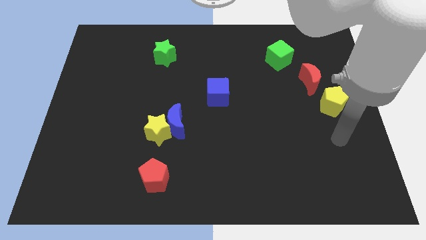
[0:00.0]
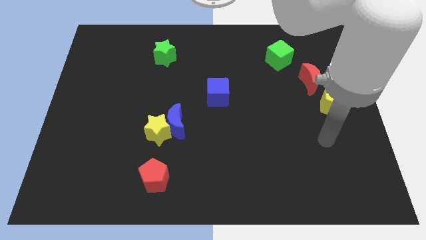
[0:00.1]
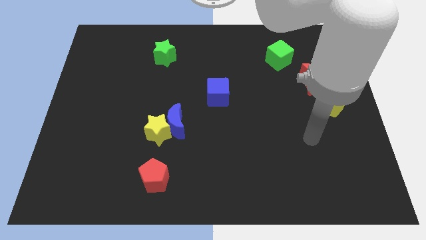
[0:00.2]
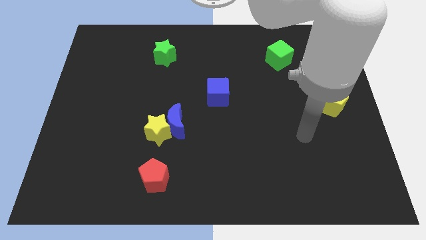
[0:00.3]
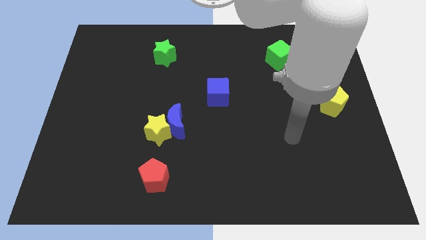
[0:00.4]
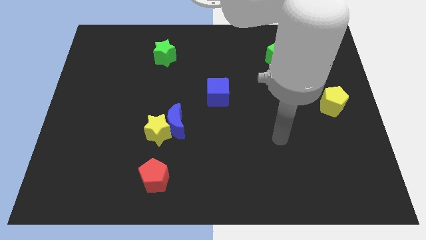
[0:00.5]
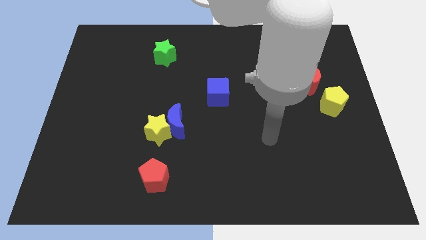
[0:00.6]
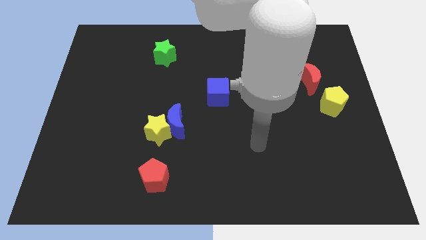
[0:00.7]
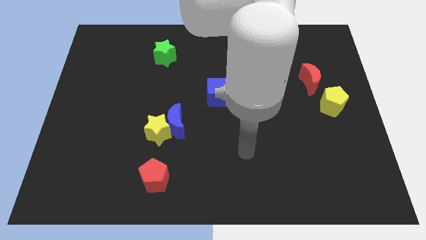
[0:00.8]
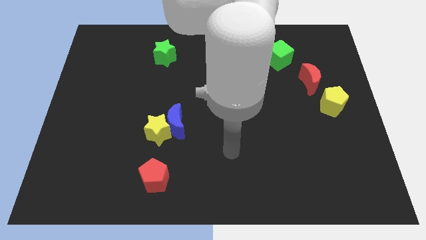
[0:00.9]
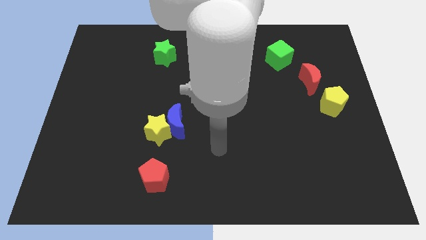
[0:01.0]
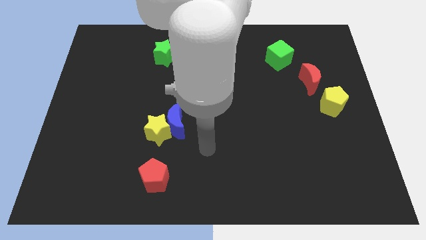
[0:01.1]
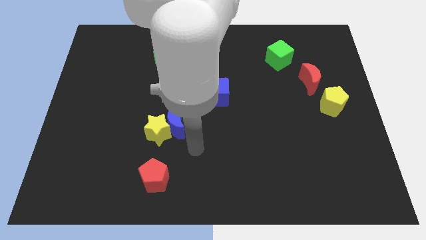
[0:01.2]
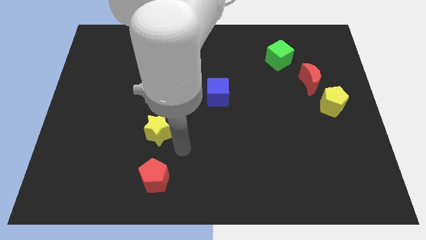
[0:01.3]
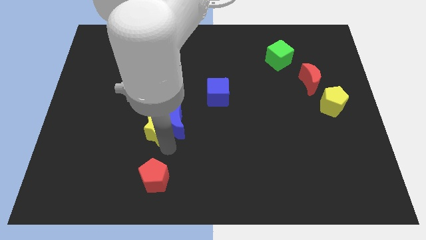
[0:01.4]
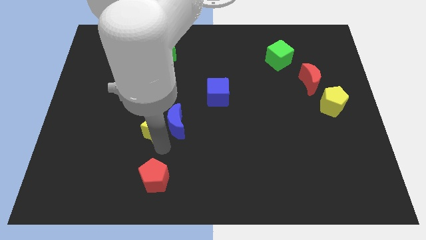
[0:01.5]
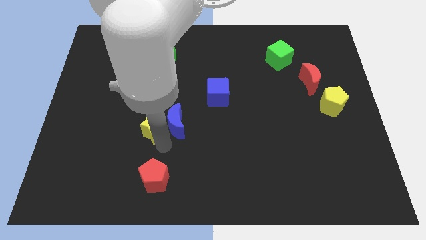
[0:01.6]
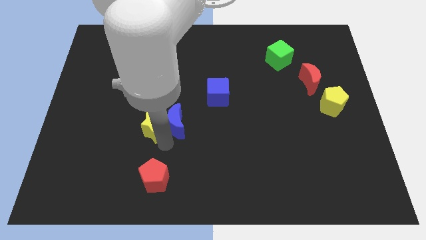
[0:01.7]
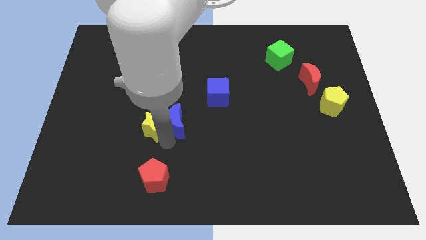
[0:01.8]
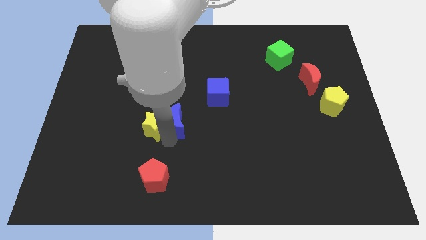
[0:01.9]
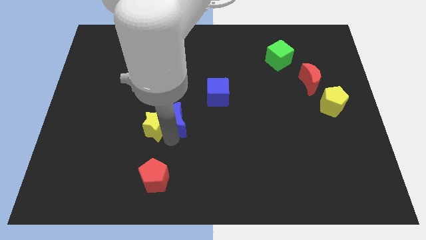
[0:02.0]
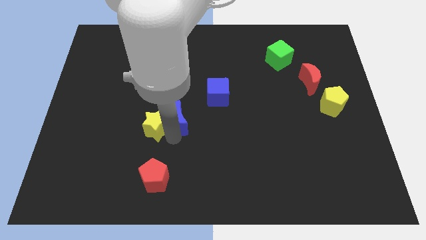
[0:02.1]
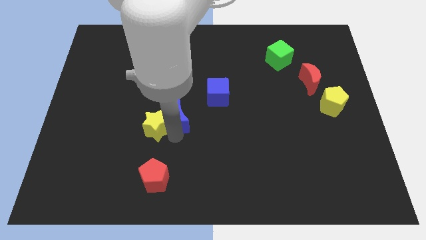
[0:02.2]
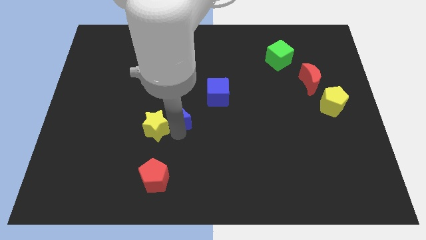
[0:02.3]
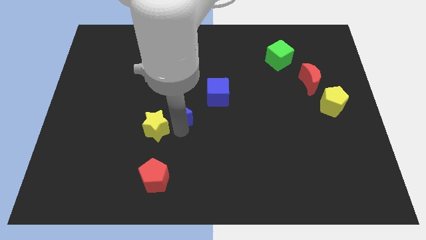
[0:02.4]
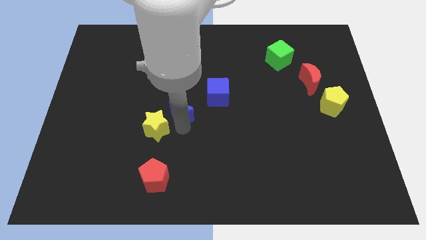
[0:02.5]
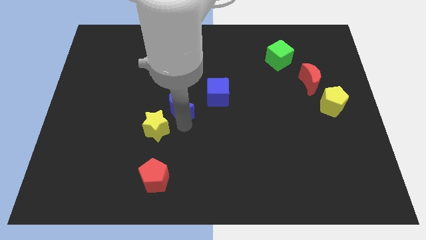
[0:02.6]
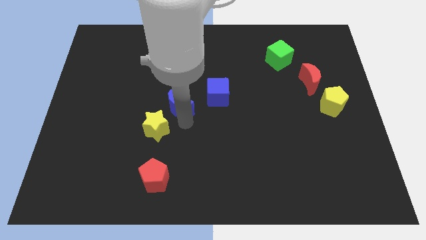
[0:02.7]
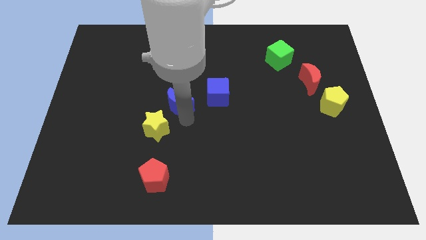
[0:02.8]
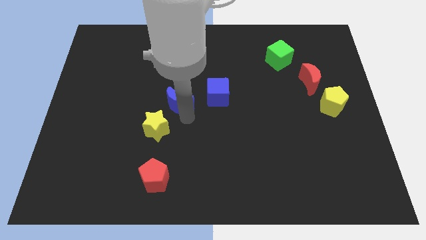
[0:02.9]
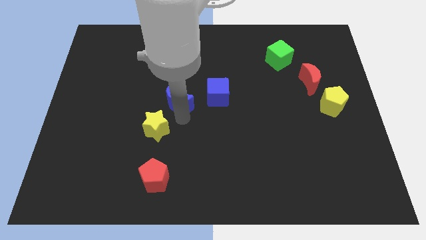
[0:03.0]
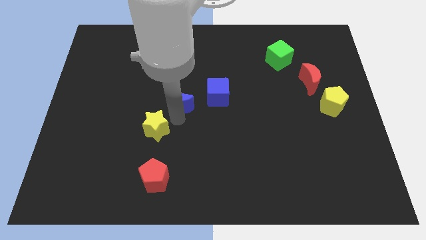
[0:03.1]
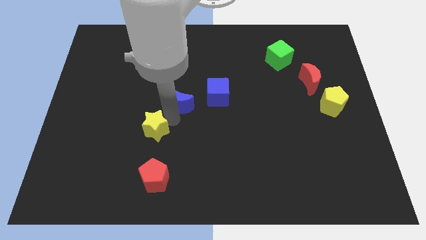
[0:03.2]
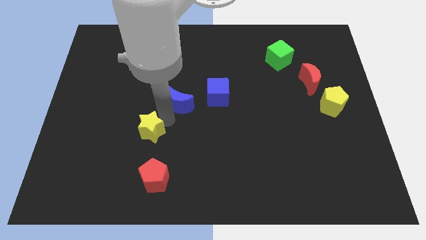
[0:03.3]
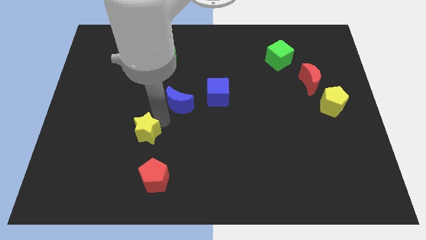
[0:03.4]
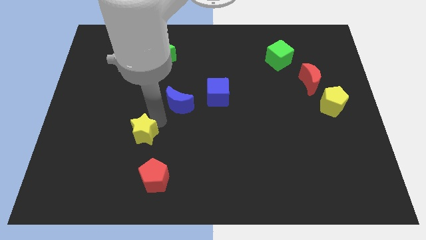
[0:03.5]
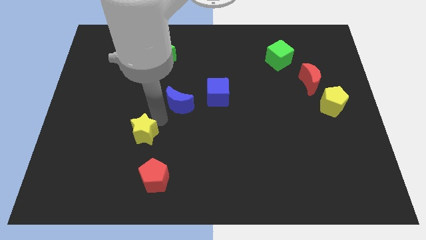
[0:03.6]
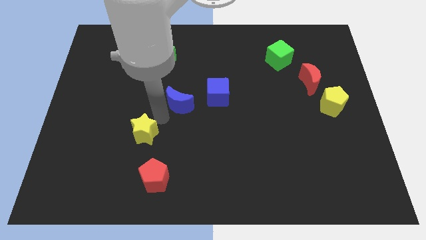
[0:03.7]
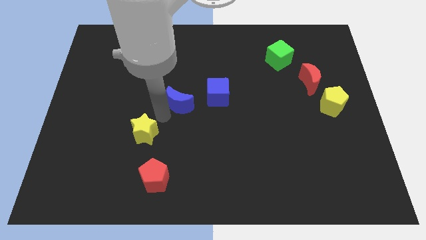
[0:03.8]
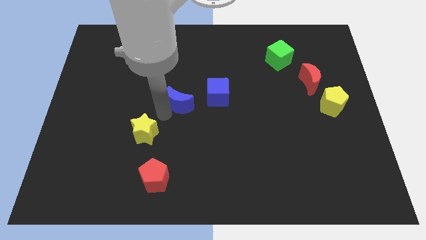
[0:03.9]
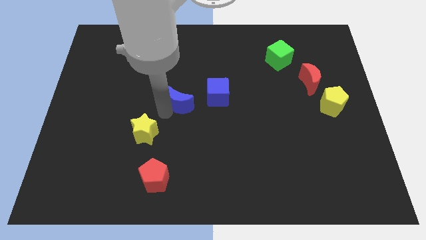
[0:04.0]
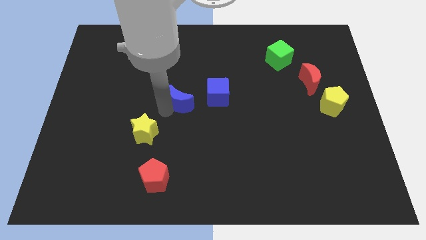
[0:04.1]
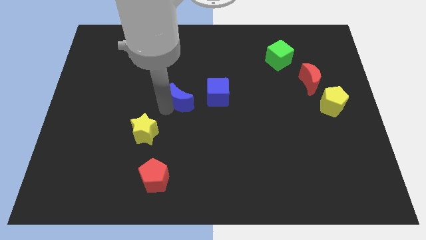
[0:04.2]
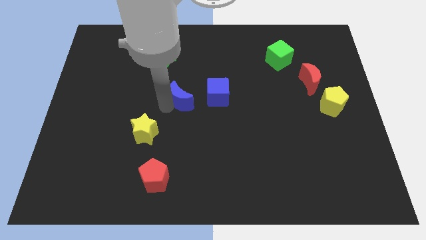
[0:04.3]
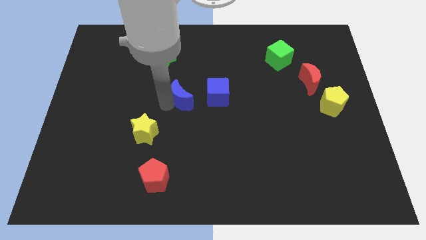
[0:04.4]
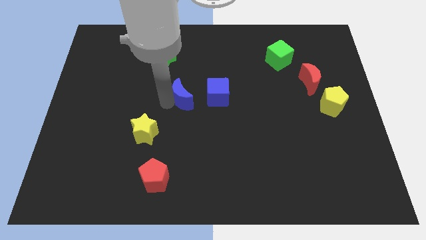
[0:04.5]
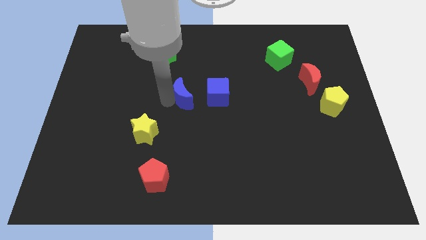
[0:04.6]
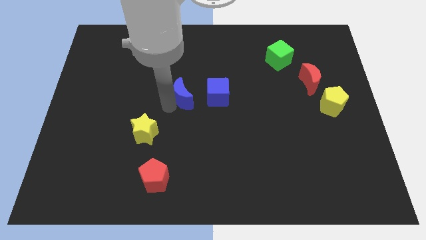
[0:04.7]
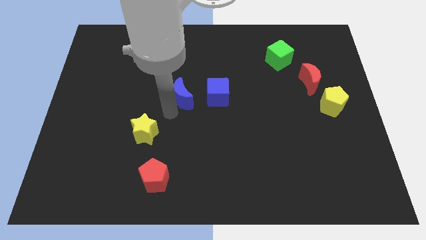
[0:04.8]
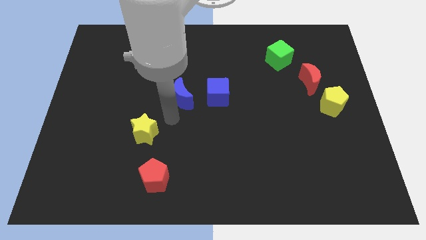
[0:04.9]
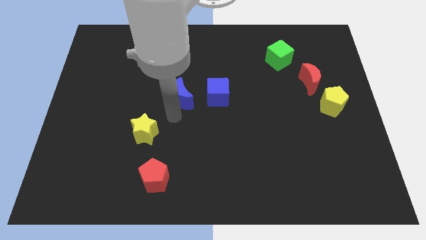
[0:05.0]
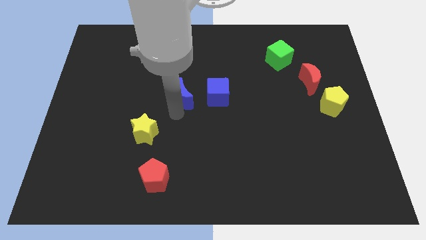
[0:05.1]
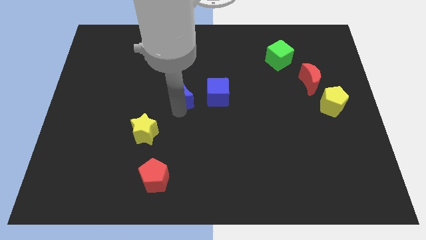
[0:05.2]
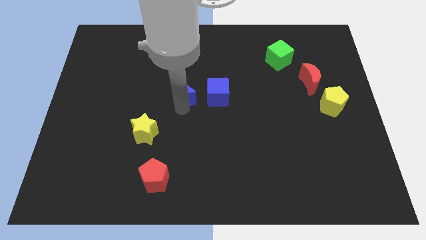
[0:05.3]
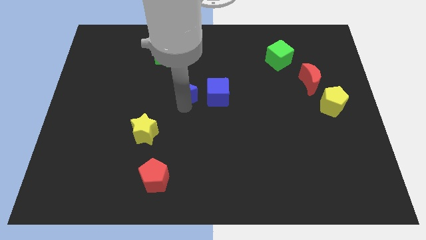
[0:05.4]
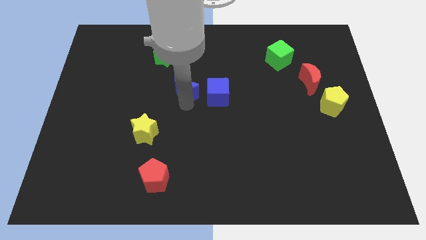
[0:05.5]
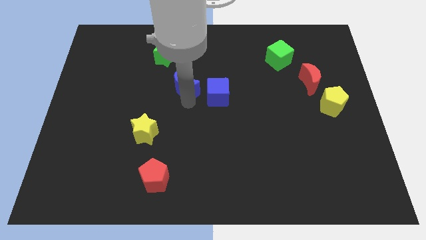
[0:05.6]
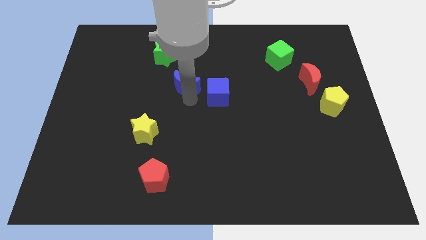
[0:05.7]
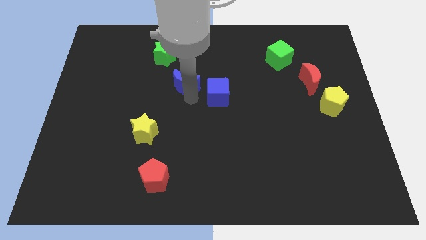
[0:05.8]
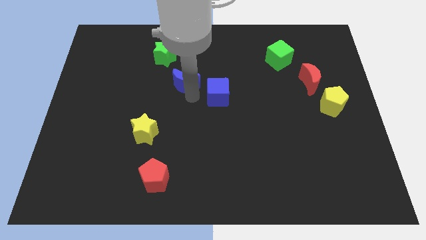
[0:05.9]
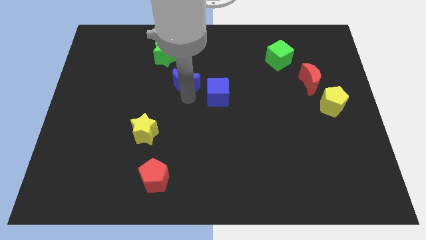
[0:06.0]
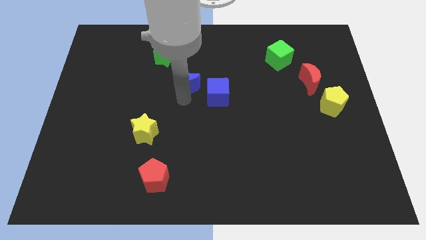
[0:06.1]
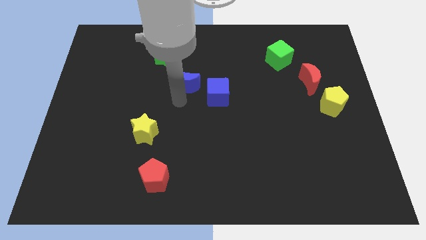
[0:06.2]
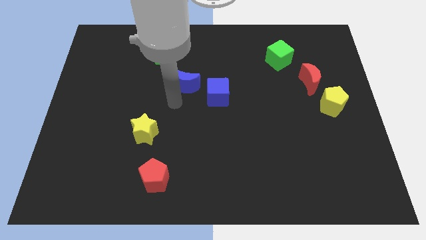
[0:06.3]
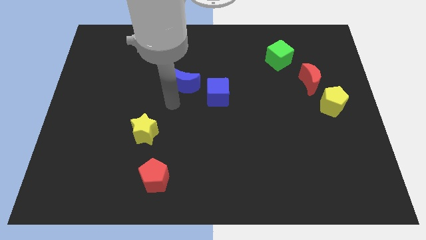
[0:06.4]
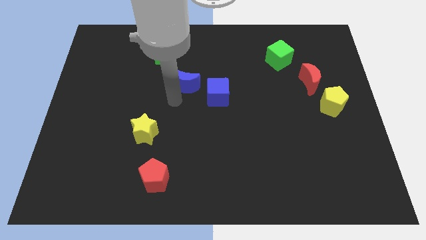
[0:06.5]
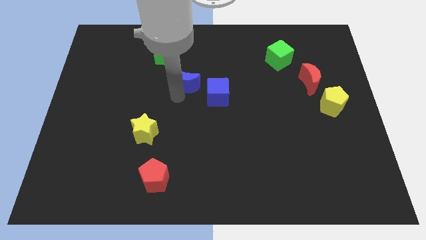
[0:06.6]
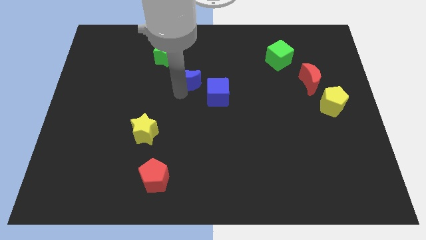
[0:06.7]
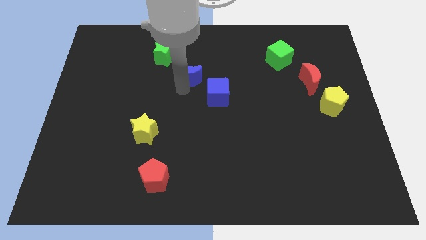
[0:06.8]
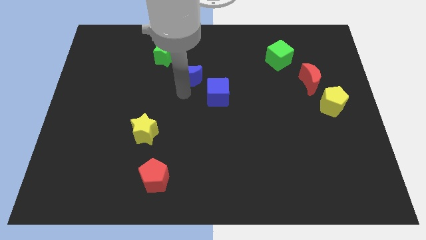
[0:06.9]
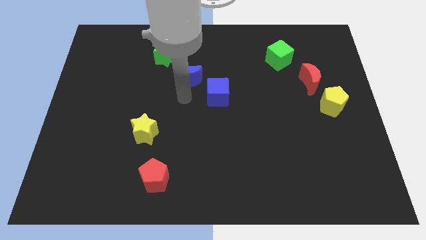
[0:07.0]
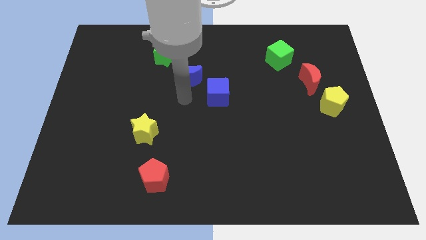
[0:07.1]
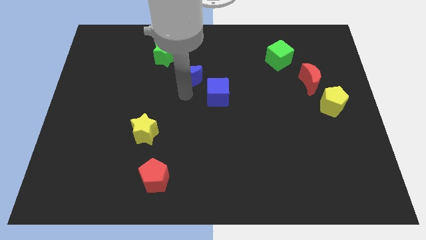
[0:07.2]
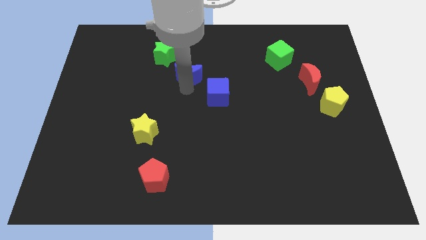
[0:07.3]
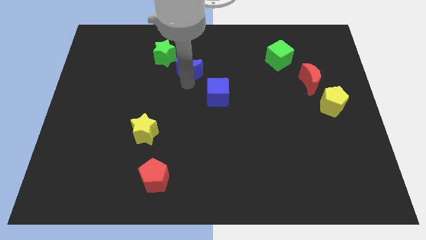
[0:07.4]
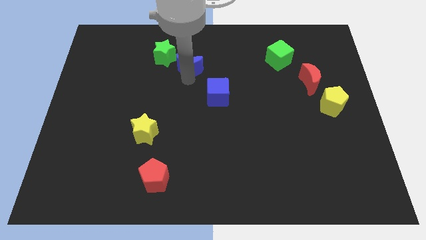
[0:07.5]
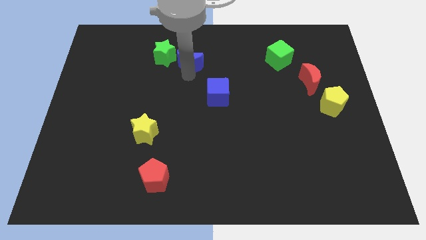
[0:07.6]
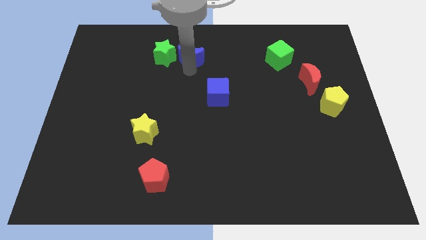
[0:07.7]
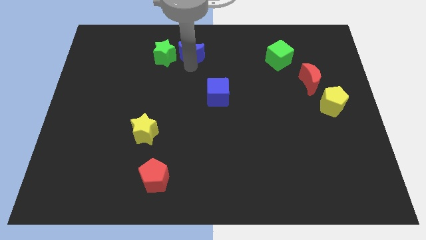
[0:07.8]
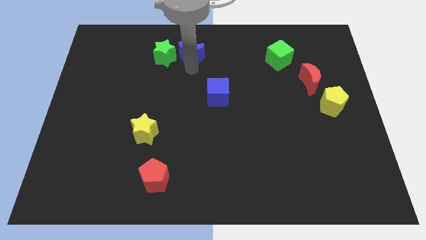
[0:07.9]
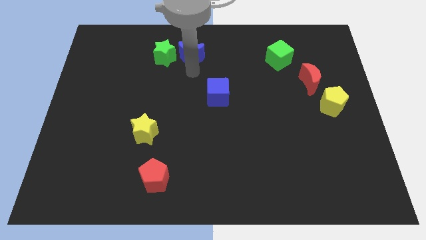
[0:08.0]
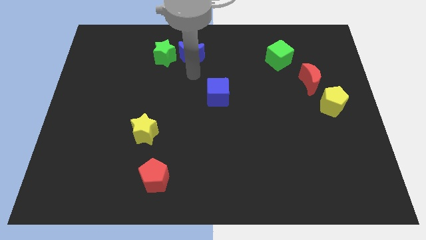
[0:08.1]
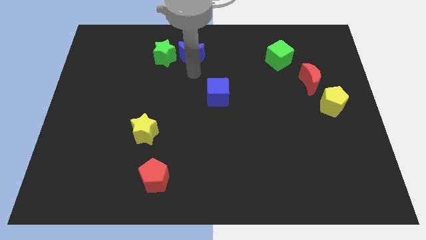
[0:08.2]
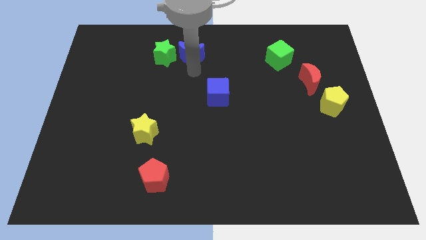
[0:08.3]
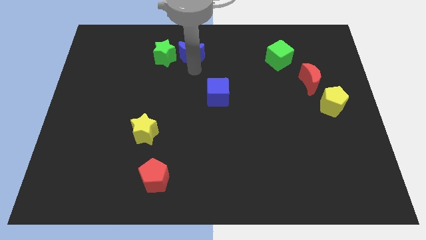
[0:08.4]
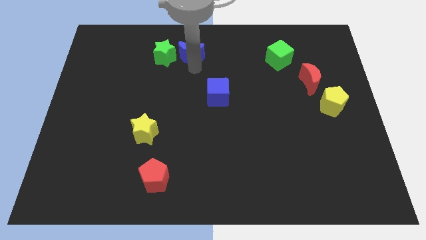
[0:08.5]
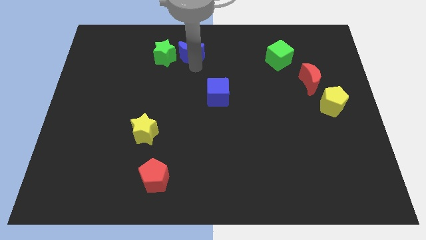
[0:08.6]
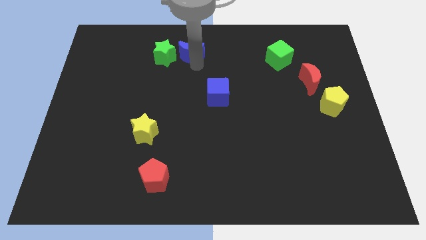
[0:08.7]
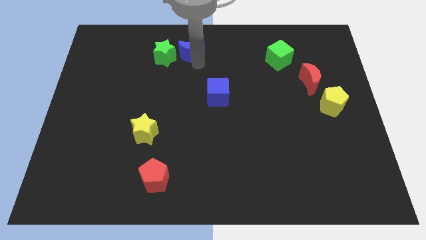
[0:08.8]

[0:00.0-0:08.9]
push the blue moon to the top side
